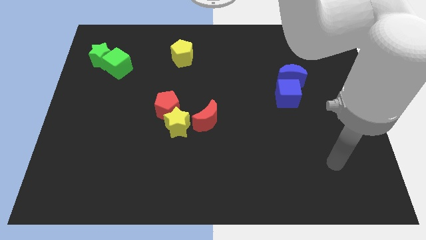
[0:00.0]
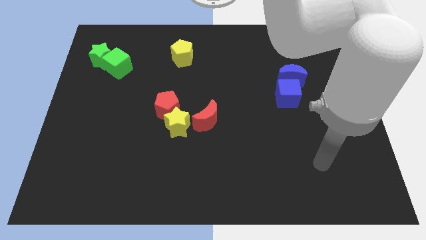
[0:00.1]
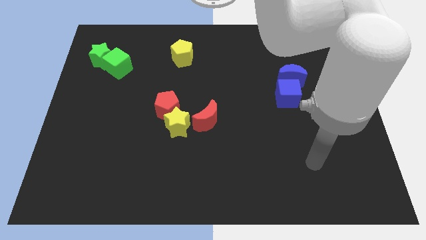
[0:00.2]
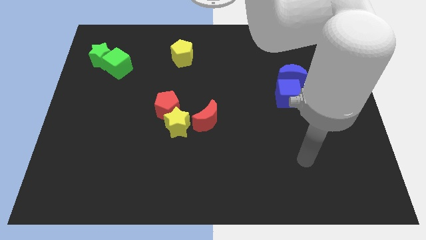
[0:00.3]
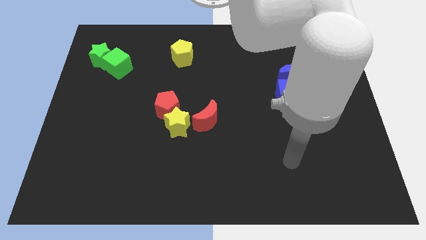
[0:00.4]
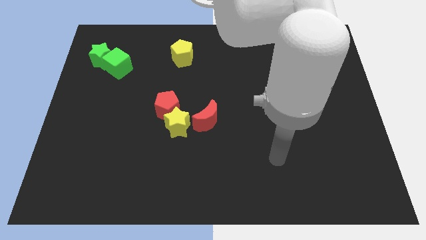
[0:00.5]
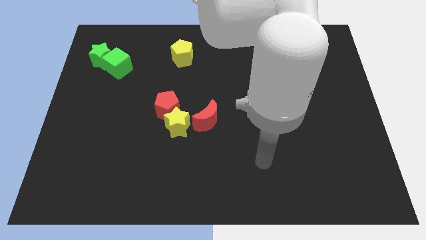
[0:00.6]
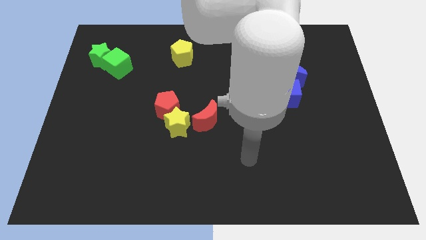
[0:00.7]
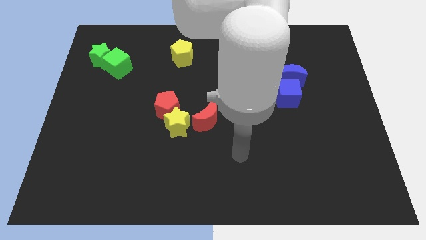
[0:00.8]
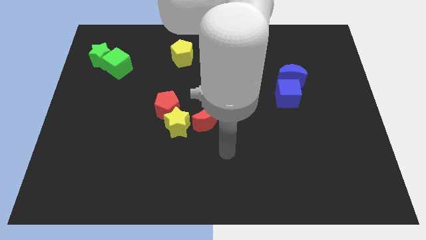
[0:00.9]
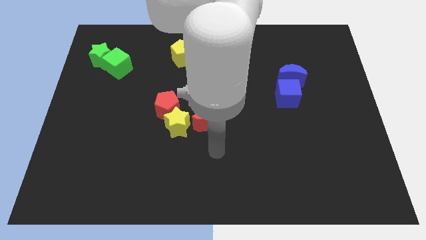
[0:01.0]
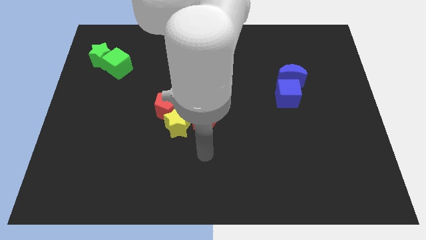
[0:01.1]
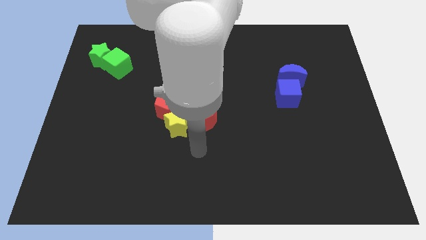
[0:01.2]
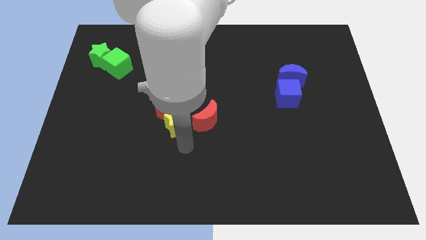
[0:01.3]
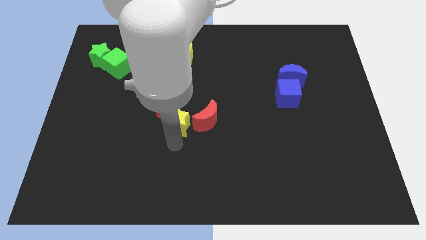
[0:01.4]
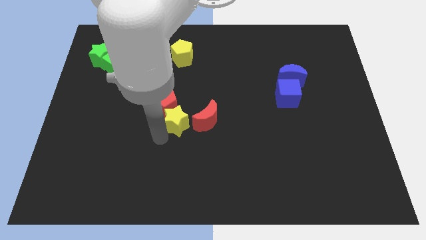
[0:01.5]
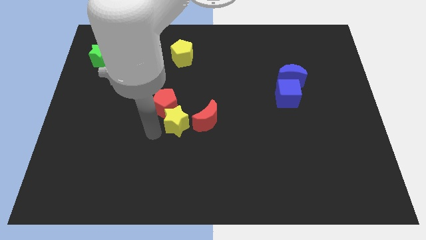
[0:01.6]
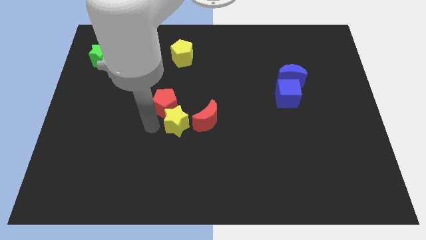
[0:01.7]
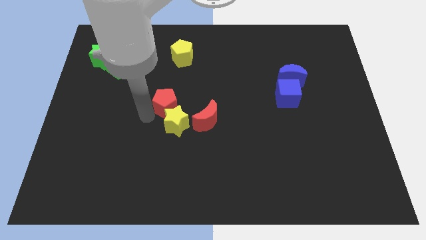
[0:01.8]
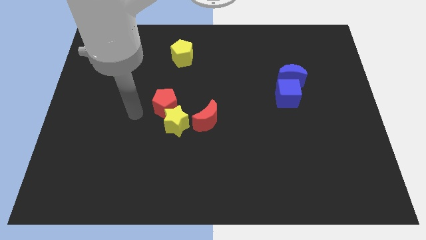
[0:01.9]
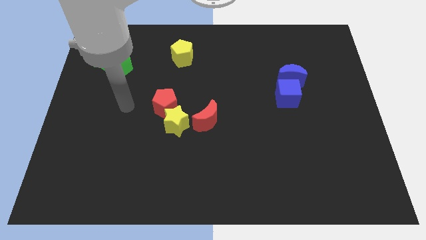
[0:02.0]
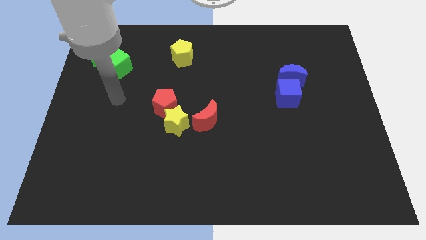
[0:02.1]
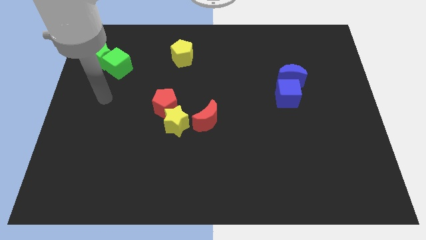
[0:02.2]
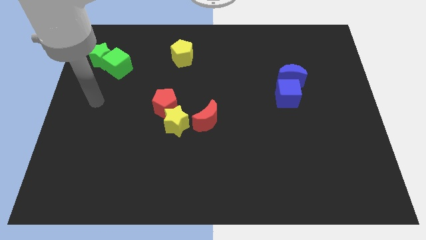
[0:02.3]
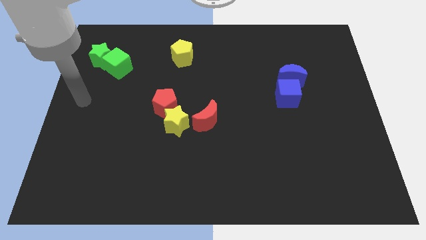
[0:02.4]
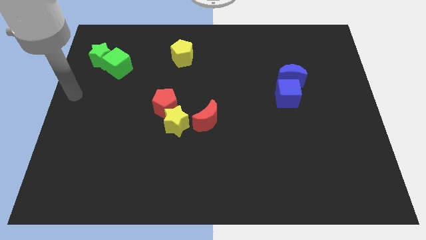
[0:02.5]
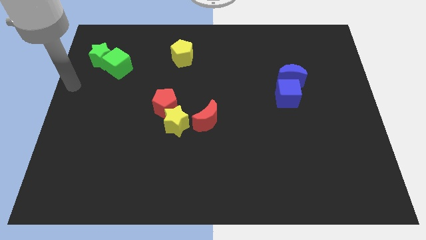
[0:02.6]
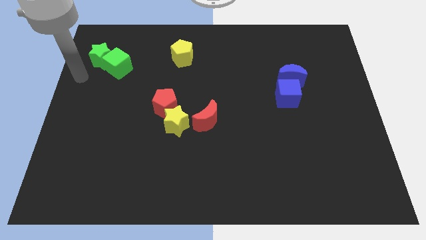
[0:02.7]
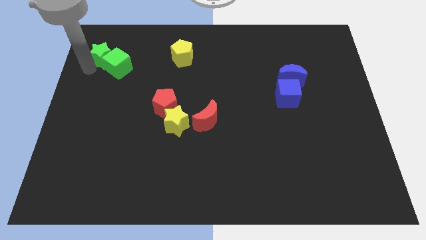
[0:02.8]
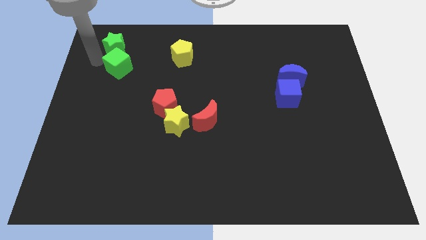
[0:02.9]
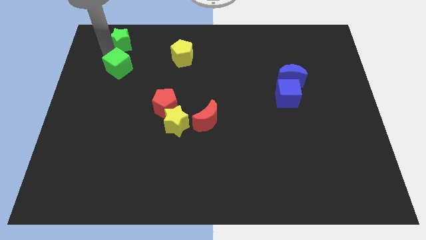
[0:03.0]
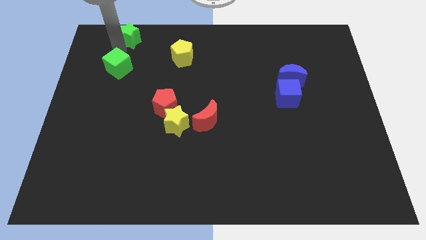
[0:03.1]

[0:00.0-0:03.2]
move the green cube away from the green star

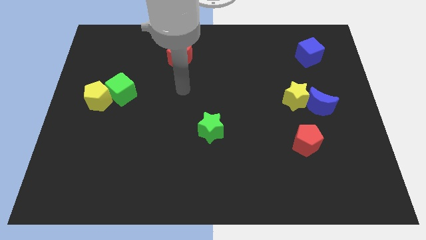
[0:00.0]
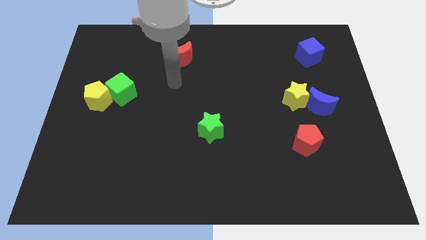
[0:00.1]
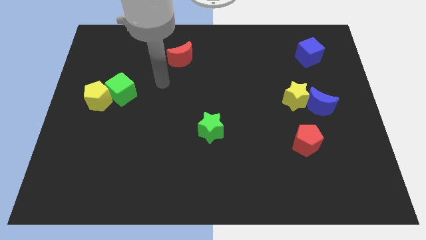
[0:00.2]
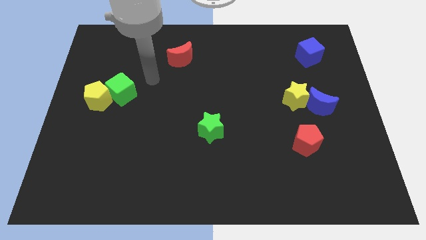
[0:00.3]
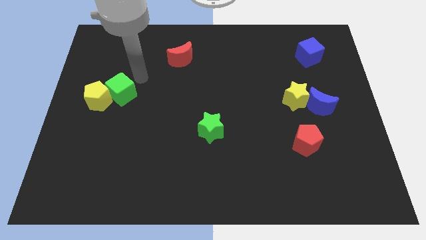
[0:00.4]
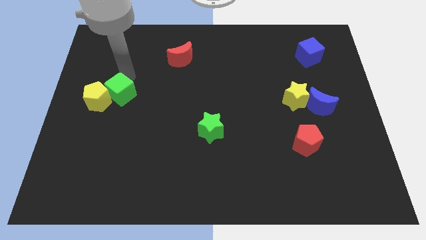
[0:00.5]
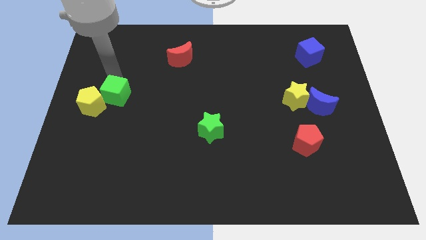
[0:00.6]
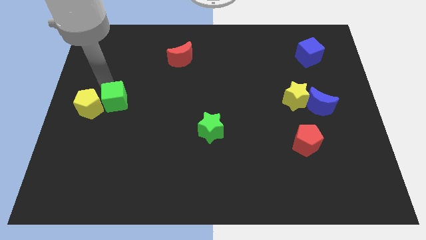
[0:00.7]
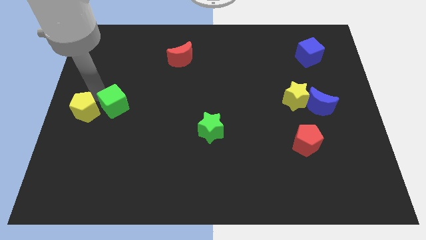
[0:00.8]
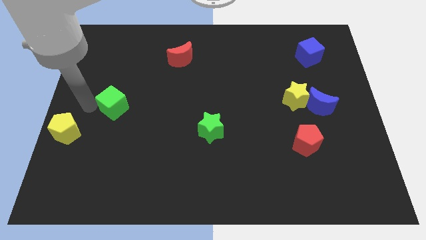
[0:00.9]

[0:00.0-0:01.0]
move the green cube away from the yellow pentagon

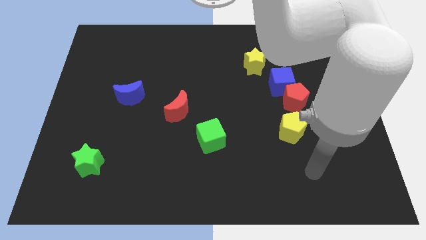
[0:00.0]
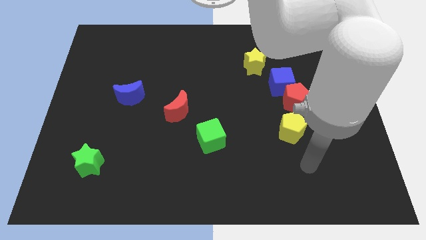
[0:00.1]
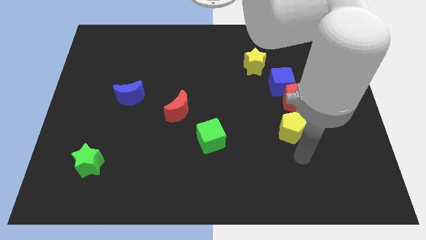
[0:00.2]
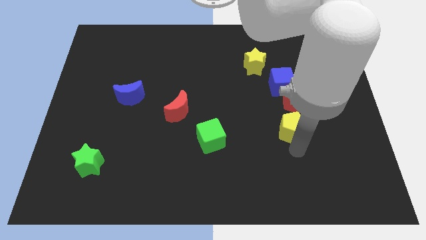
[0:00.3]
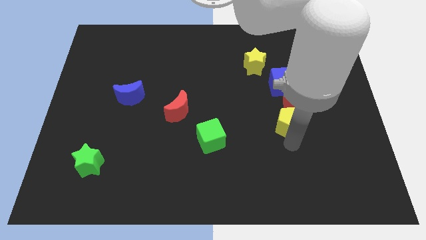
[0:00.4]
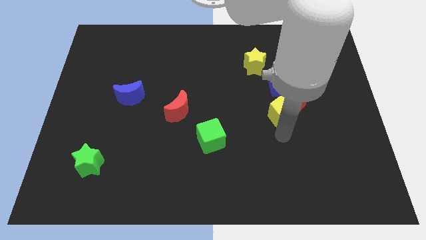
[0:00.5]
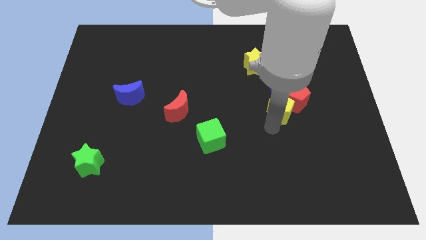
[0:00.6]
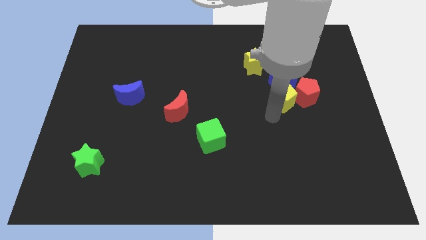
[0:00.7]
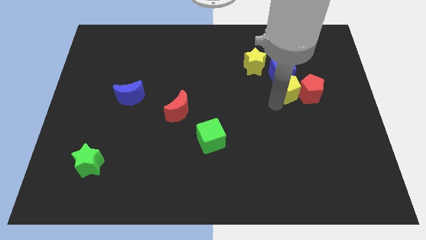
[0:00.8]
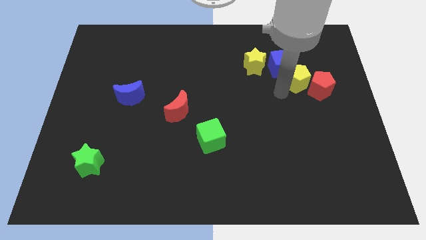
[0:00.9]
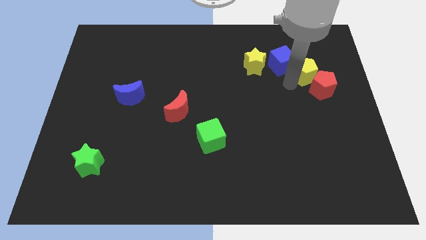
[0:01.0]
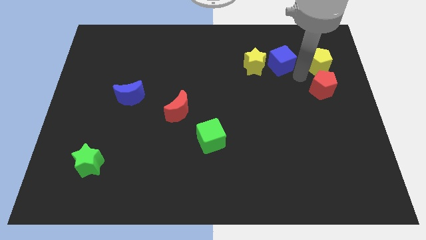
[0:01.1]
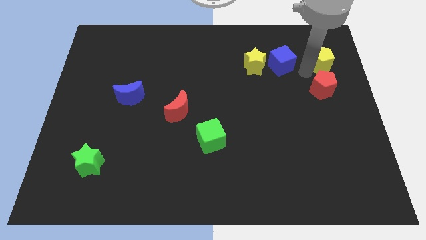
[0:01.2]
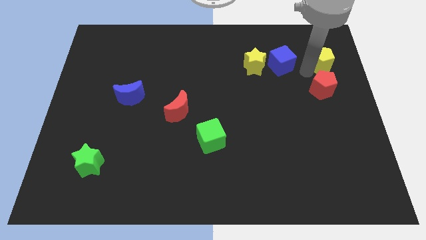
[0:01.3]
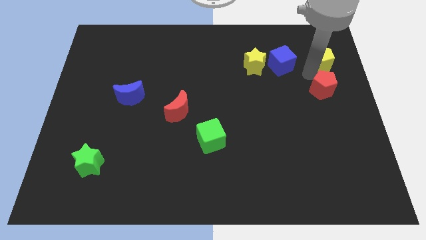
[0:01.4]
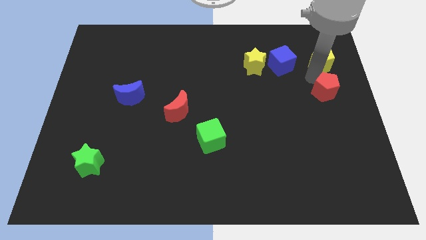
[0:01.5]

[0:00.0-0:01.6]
move the red pentagon away from the blue cube and yellow pentagon

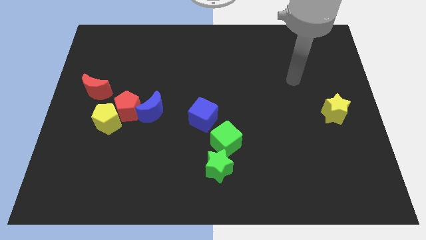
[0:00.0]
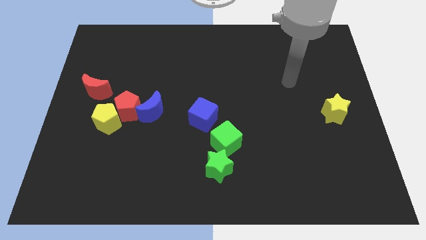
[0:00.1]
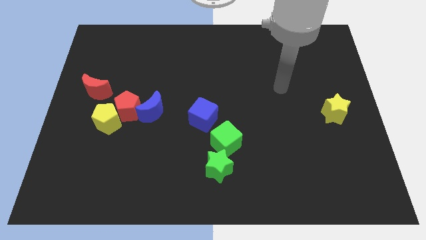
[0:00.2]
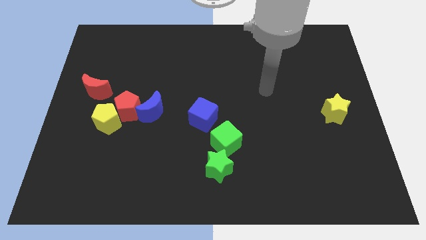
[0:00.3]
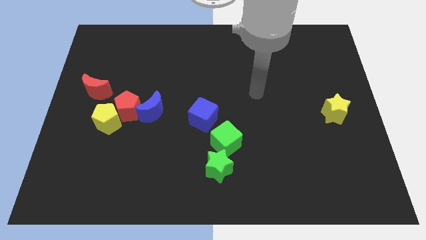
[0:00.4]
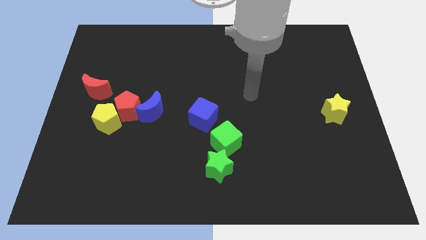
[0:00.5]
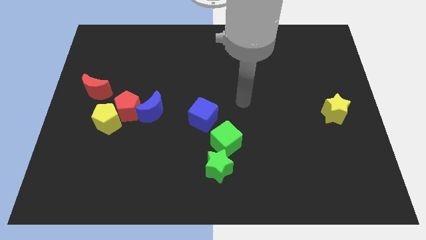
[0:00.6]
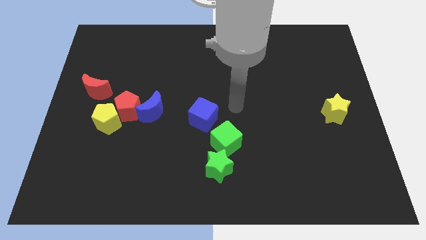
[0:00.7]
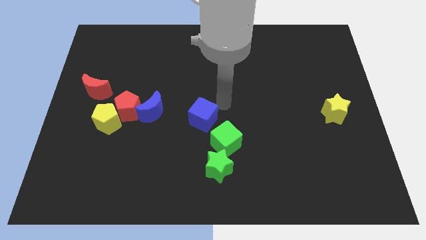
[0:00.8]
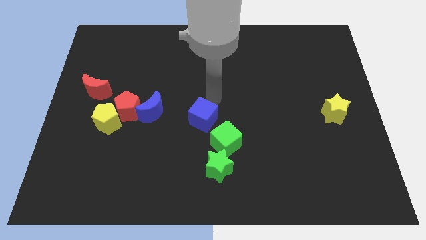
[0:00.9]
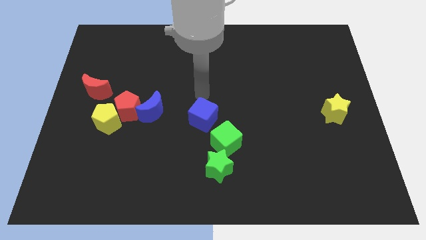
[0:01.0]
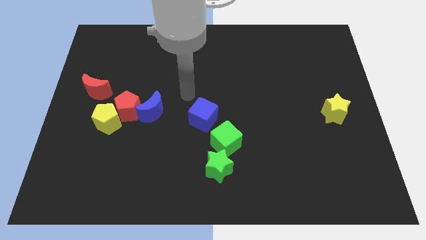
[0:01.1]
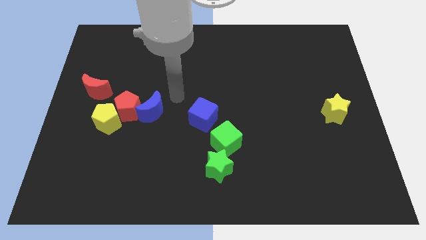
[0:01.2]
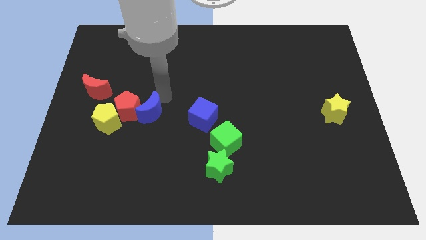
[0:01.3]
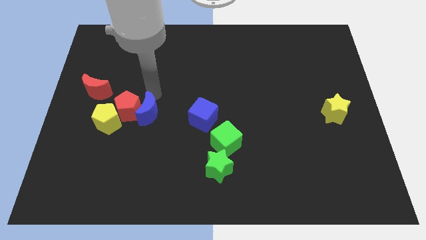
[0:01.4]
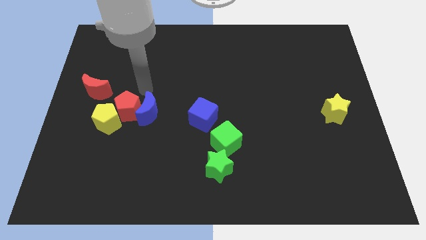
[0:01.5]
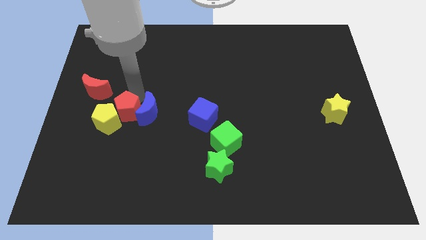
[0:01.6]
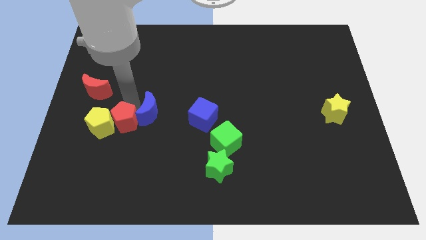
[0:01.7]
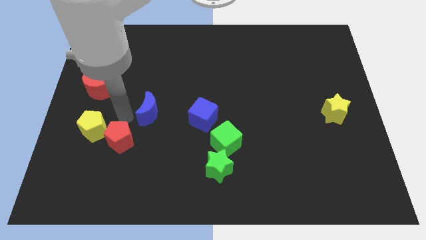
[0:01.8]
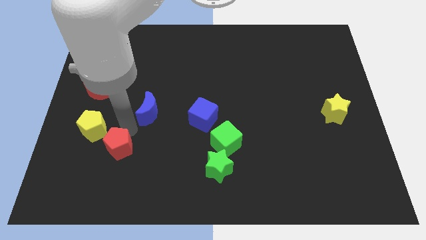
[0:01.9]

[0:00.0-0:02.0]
move the blue moon away from the red pentagon

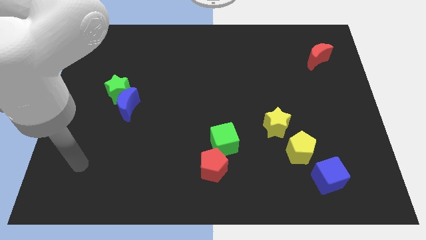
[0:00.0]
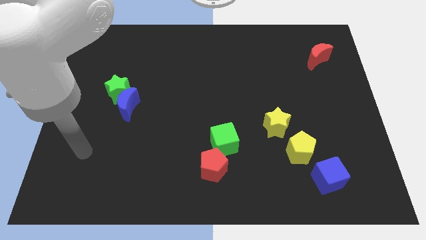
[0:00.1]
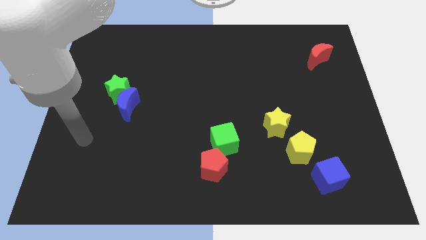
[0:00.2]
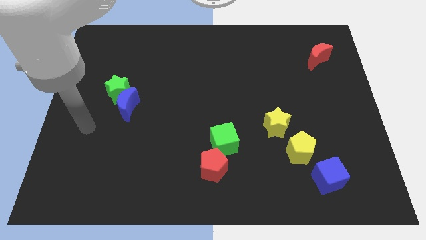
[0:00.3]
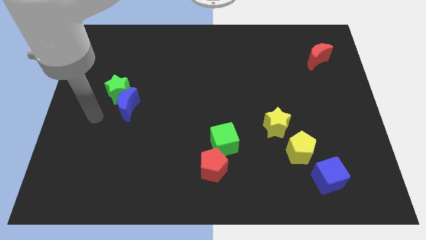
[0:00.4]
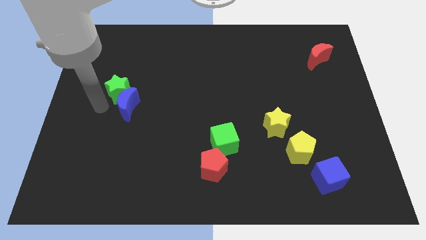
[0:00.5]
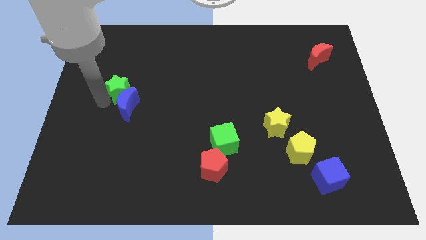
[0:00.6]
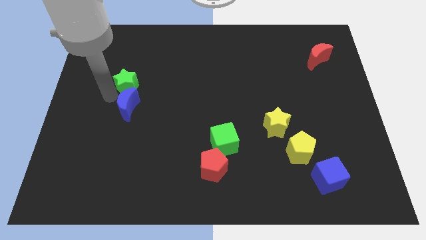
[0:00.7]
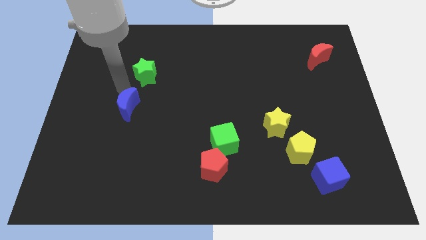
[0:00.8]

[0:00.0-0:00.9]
move the blue moon away from the green star

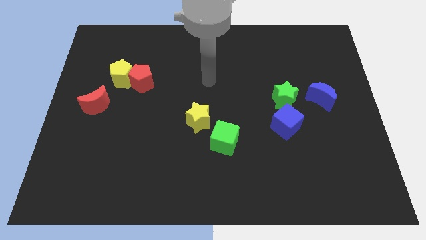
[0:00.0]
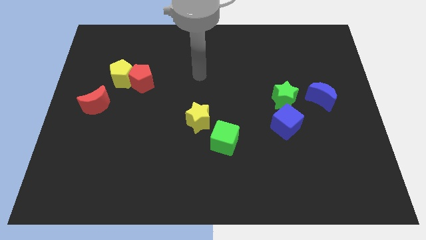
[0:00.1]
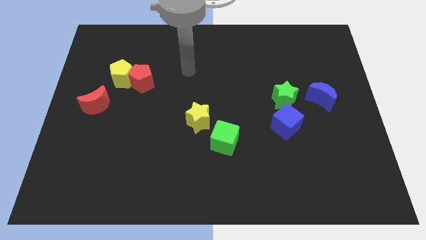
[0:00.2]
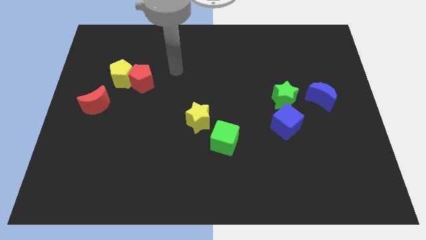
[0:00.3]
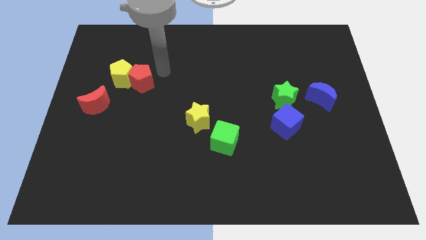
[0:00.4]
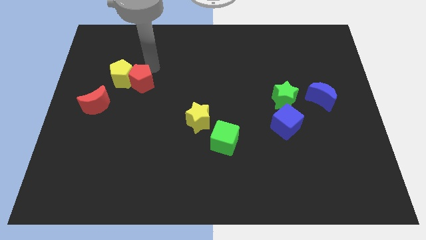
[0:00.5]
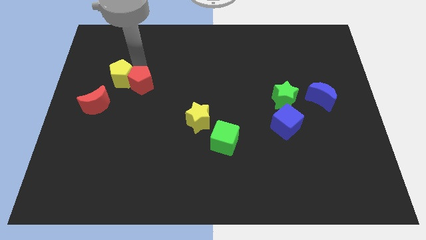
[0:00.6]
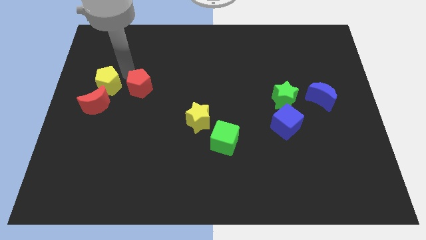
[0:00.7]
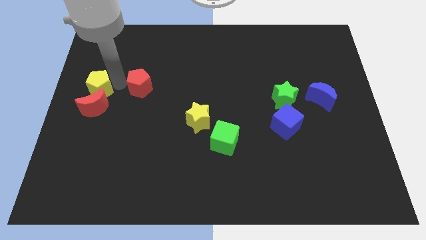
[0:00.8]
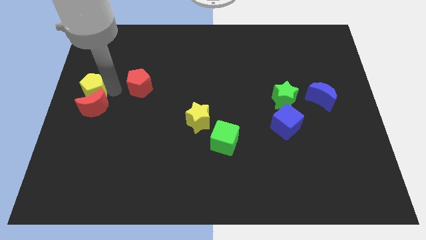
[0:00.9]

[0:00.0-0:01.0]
move the red pentagon away from the yellow pentagon
